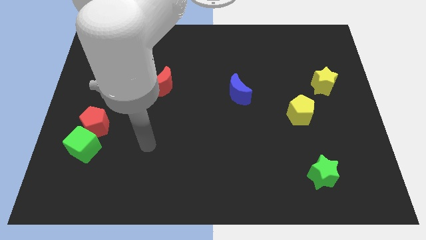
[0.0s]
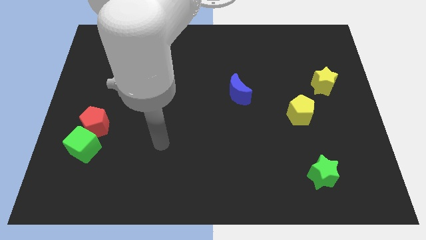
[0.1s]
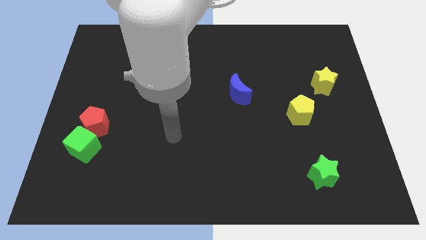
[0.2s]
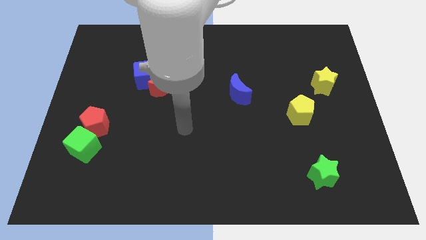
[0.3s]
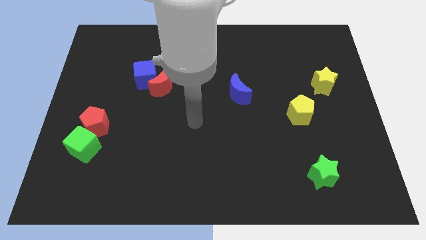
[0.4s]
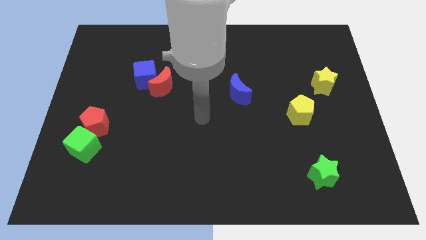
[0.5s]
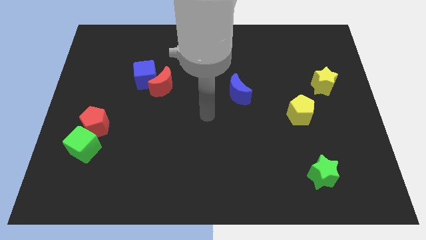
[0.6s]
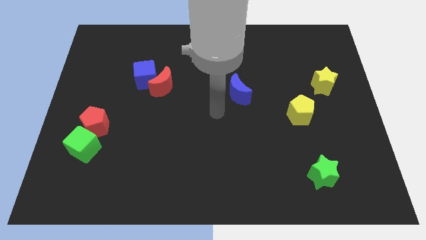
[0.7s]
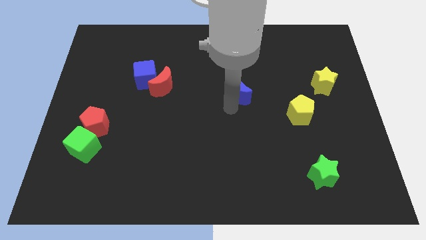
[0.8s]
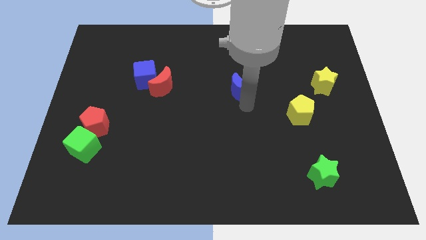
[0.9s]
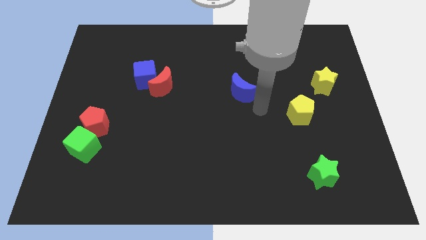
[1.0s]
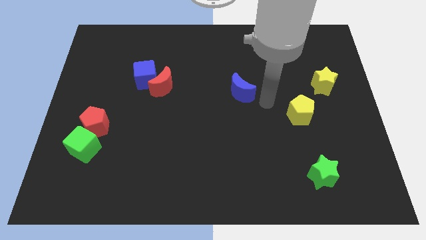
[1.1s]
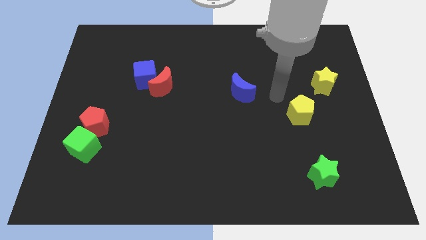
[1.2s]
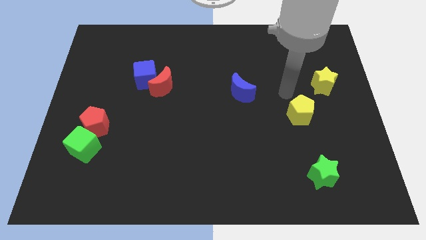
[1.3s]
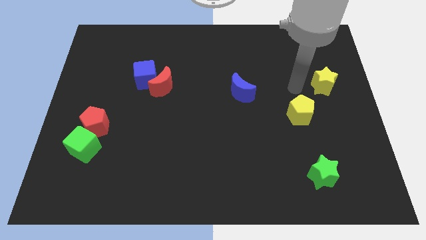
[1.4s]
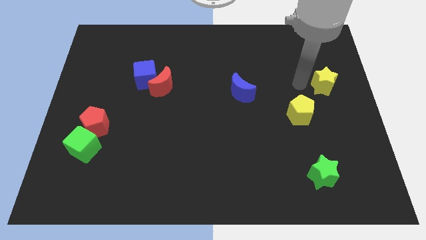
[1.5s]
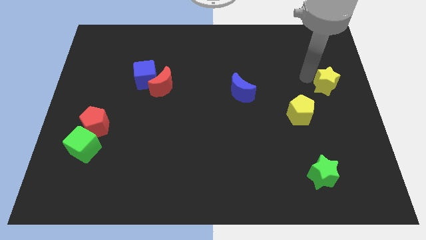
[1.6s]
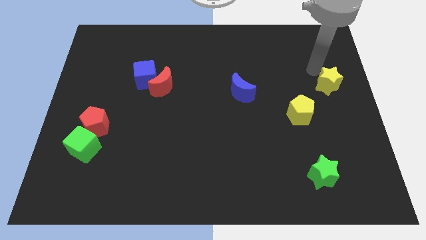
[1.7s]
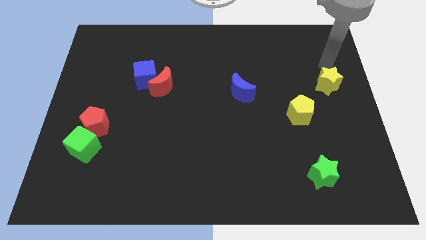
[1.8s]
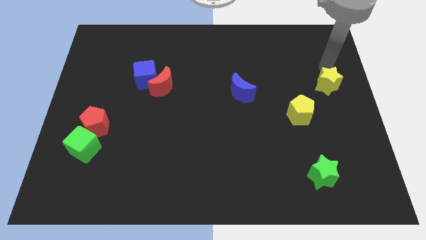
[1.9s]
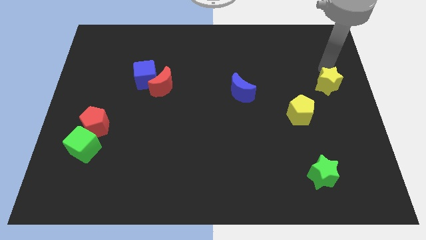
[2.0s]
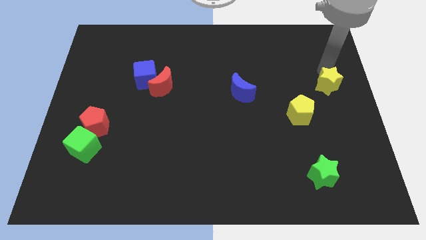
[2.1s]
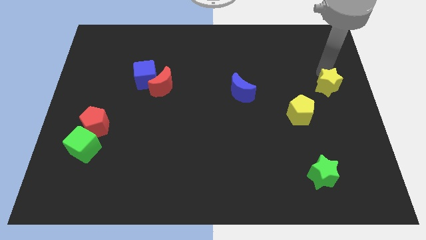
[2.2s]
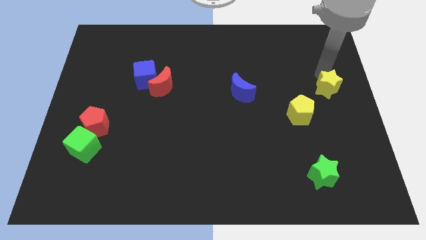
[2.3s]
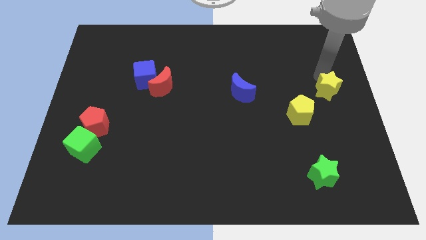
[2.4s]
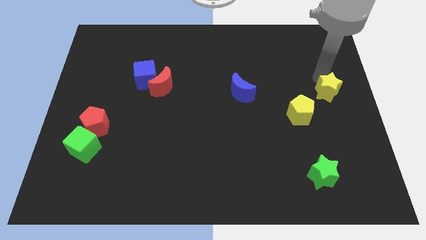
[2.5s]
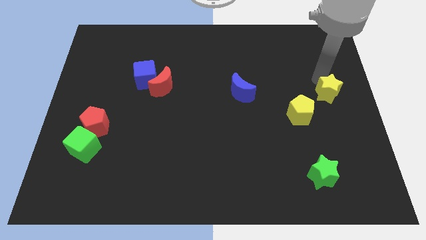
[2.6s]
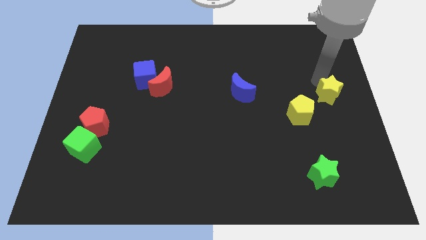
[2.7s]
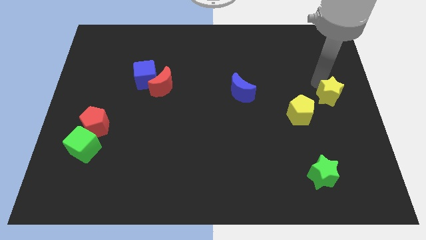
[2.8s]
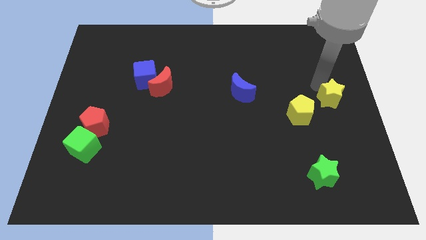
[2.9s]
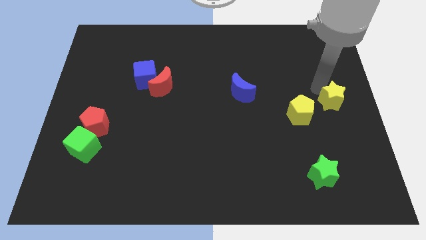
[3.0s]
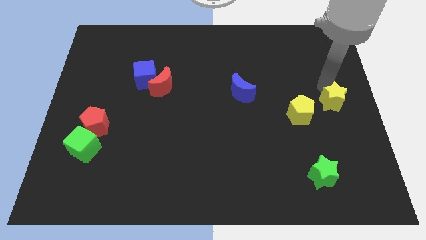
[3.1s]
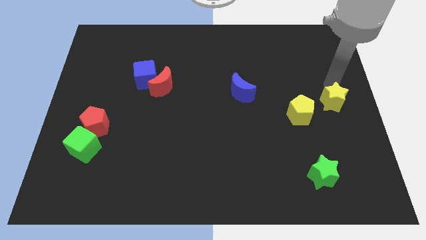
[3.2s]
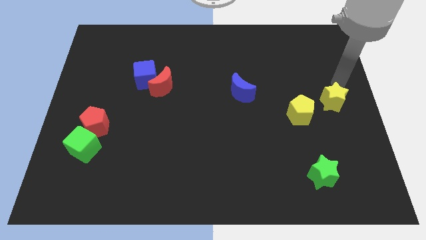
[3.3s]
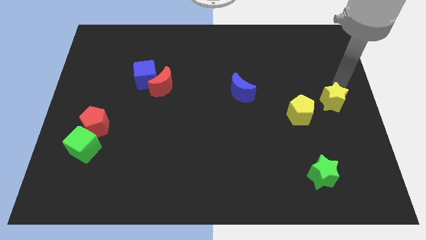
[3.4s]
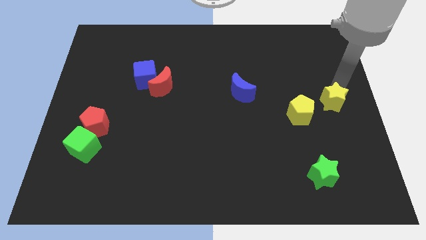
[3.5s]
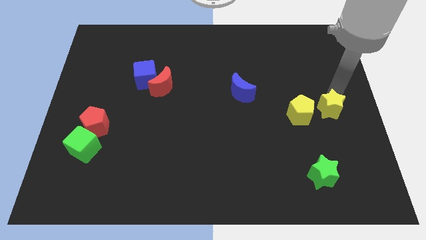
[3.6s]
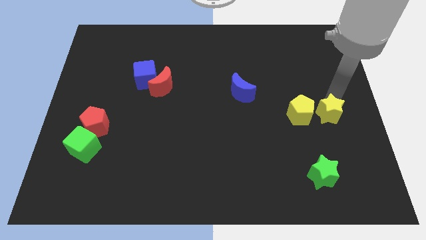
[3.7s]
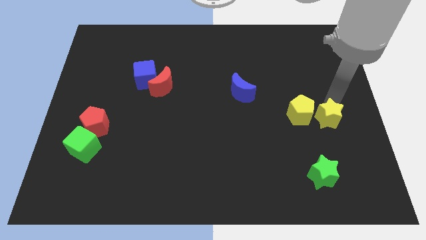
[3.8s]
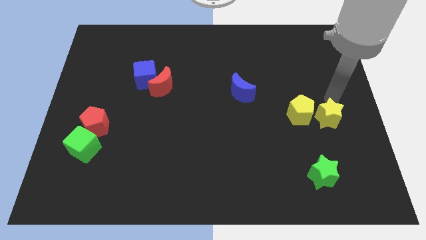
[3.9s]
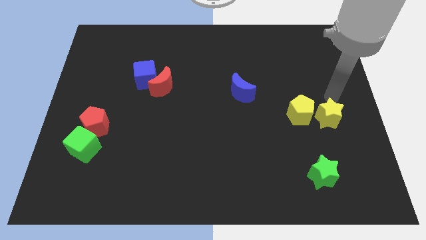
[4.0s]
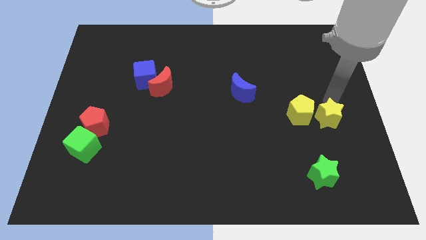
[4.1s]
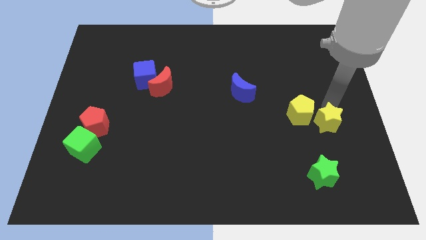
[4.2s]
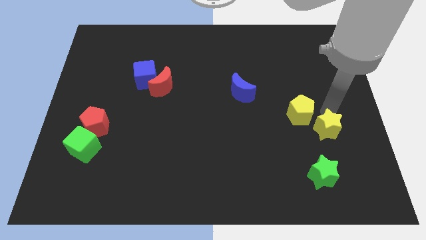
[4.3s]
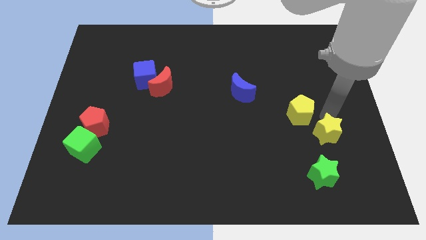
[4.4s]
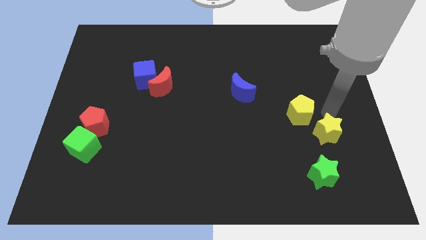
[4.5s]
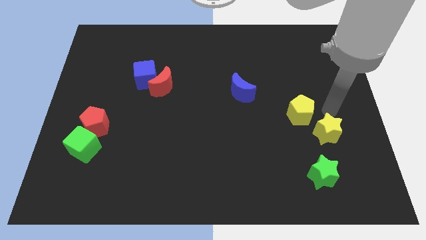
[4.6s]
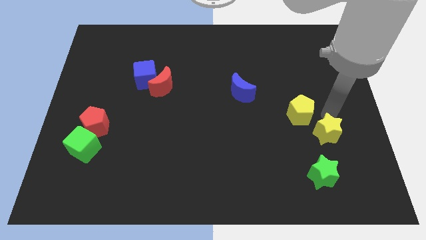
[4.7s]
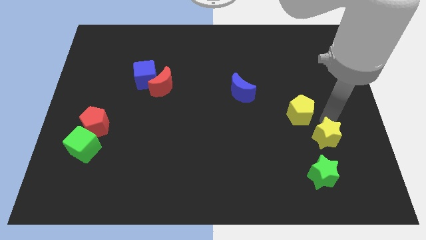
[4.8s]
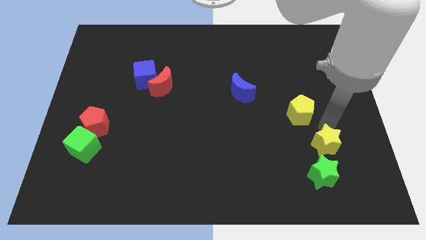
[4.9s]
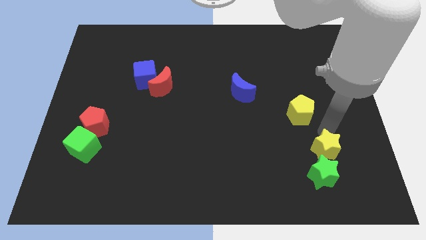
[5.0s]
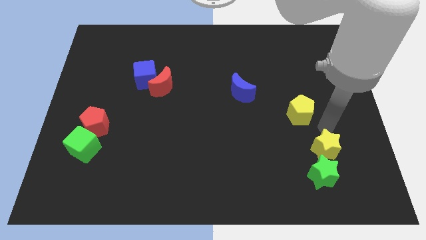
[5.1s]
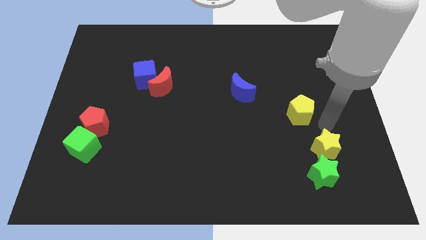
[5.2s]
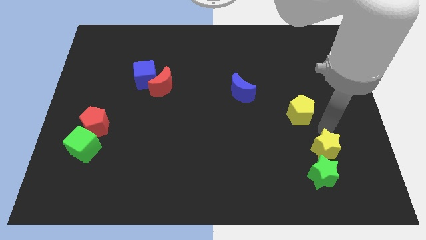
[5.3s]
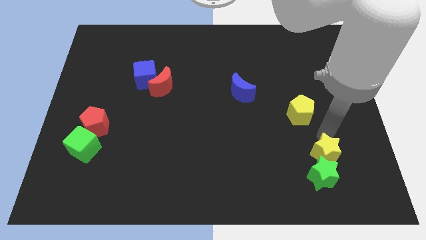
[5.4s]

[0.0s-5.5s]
slide the yellow star towards the green star

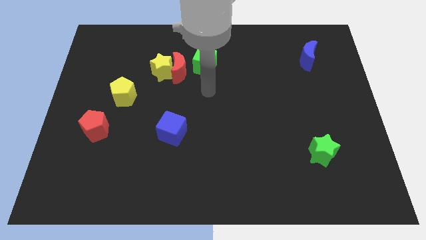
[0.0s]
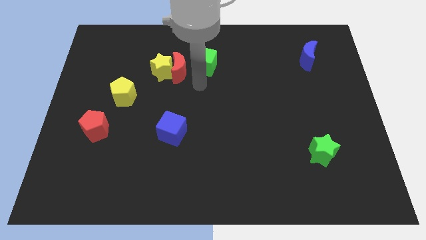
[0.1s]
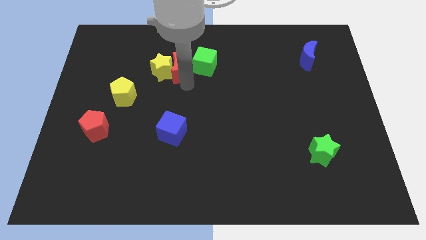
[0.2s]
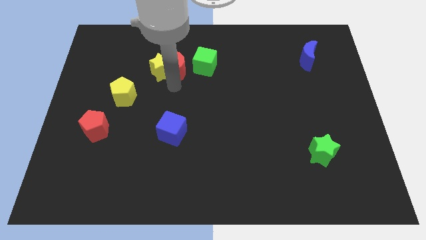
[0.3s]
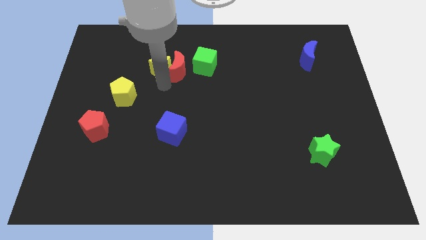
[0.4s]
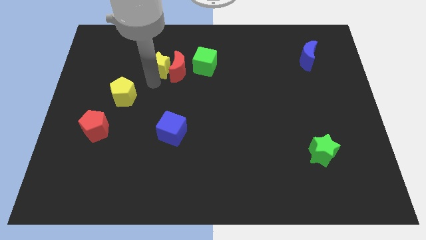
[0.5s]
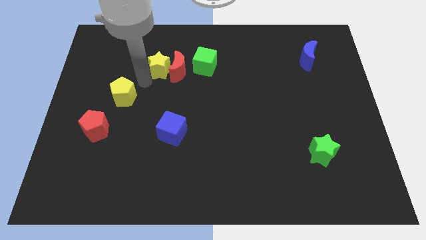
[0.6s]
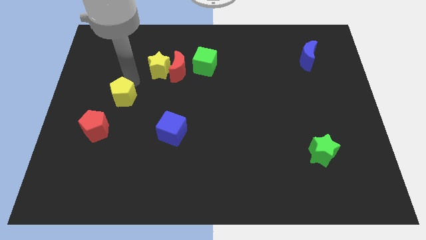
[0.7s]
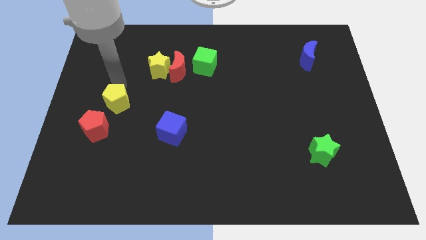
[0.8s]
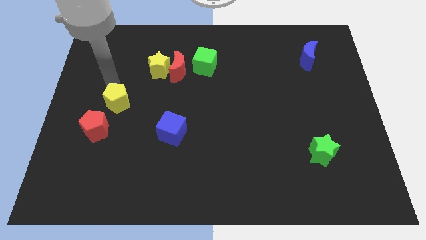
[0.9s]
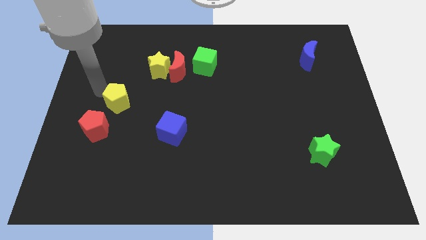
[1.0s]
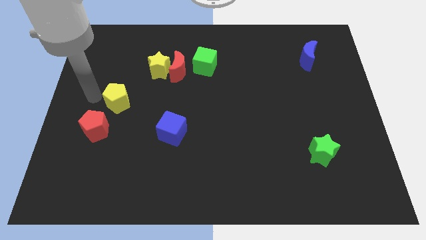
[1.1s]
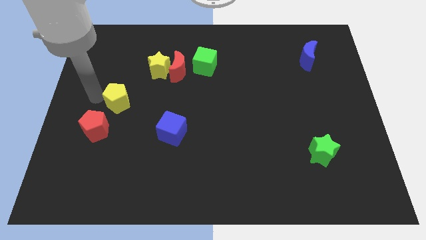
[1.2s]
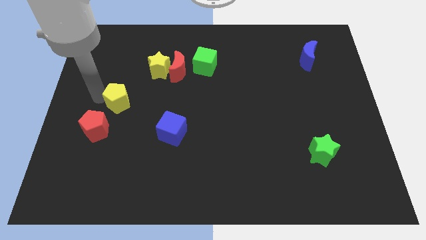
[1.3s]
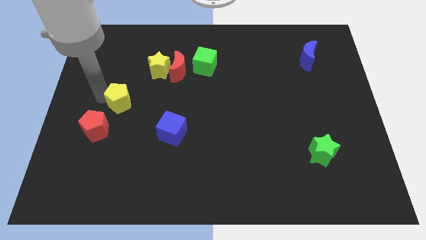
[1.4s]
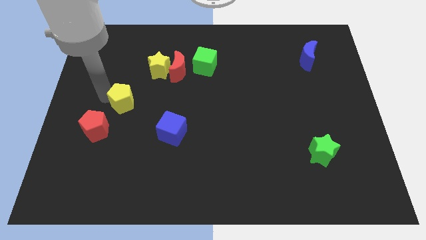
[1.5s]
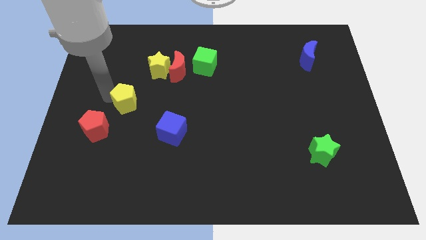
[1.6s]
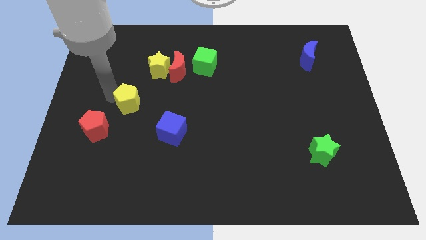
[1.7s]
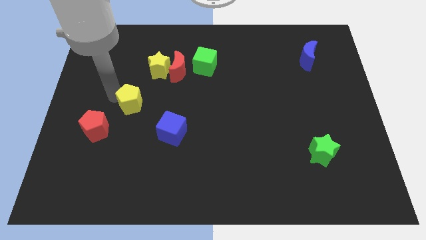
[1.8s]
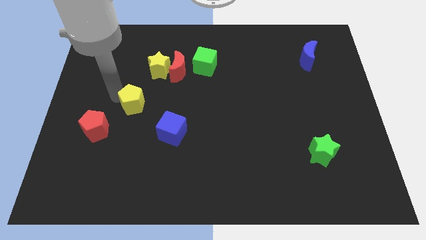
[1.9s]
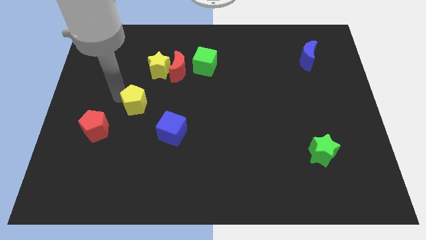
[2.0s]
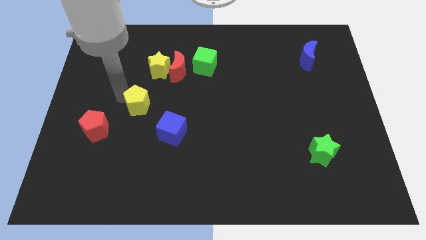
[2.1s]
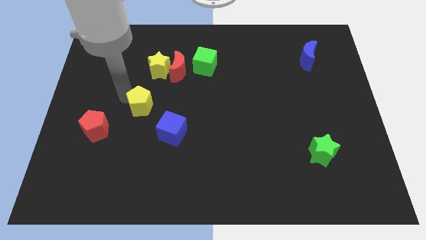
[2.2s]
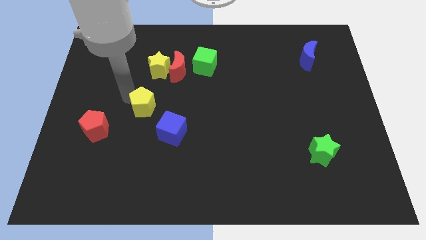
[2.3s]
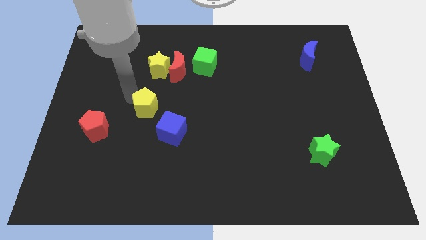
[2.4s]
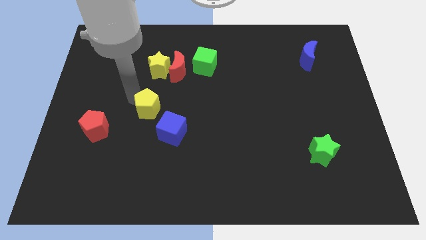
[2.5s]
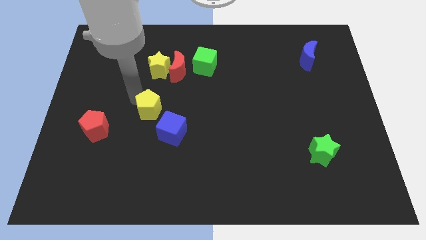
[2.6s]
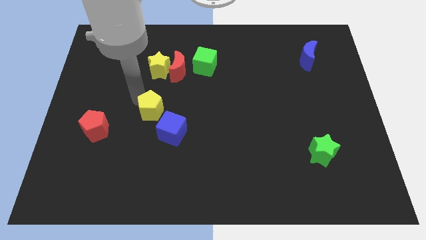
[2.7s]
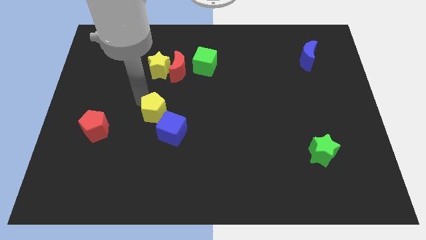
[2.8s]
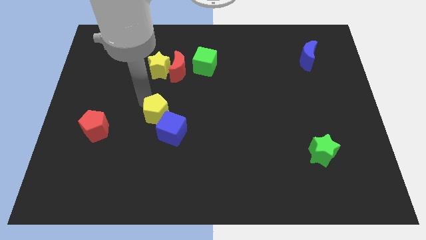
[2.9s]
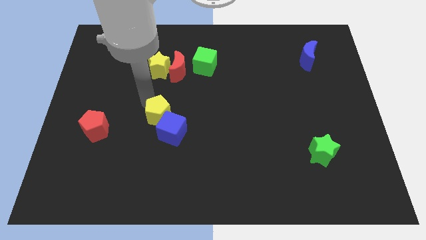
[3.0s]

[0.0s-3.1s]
slide the yellow pentagon to the blue cube
